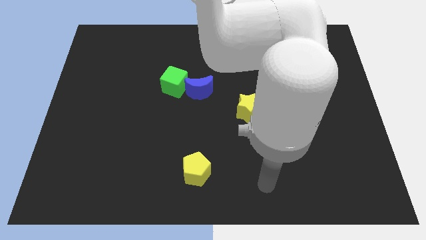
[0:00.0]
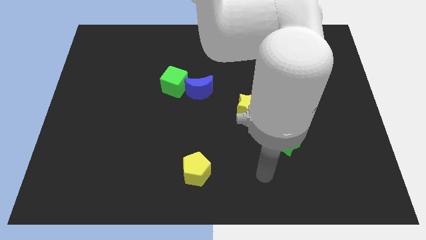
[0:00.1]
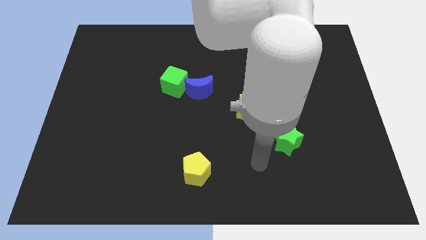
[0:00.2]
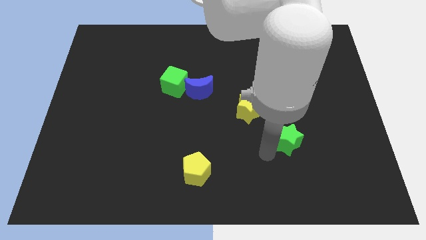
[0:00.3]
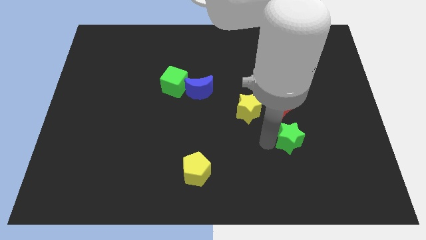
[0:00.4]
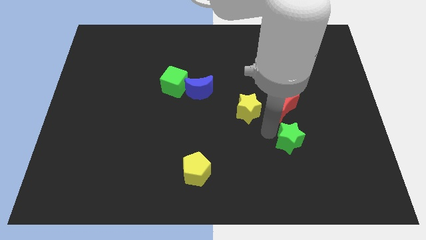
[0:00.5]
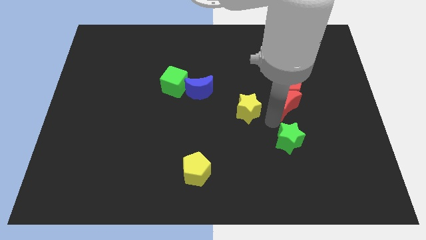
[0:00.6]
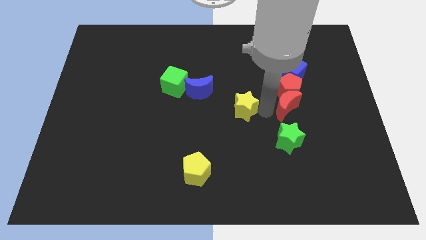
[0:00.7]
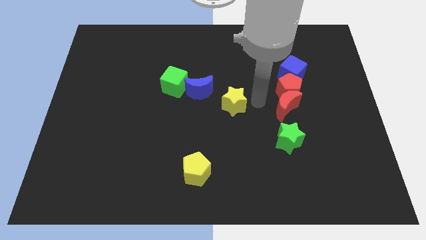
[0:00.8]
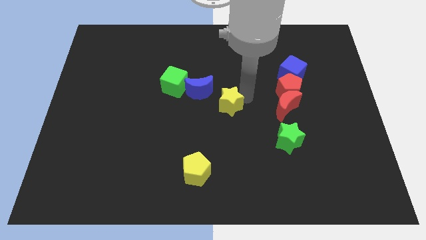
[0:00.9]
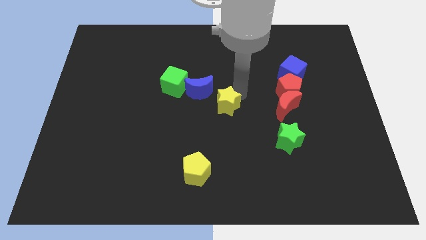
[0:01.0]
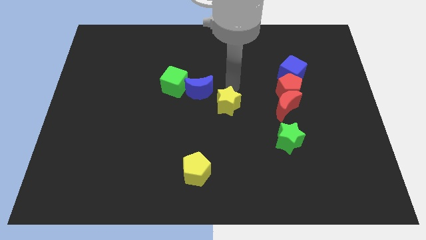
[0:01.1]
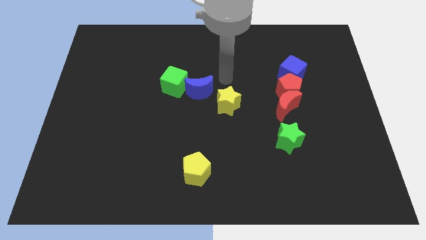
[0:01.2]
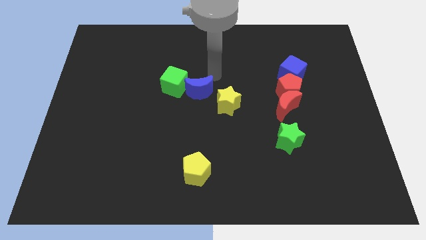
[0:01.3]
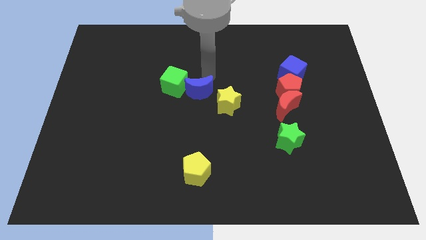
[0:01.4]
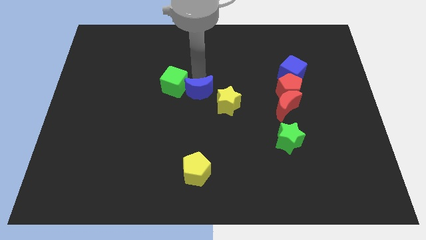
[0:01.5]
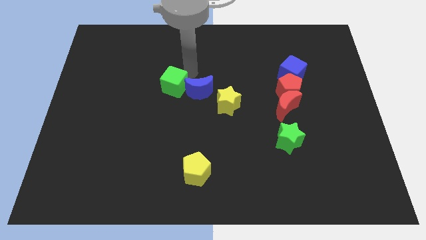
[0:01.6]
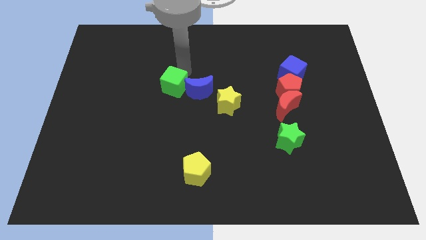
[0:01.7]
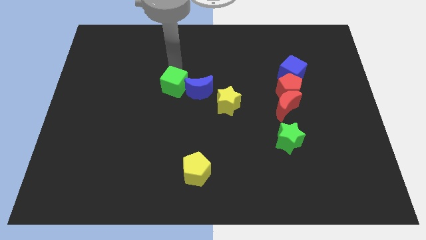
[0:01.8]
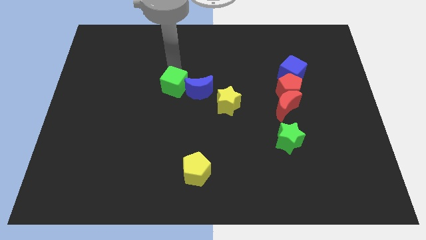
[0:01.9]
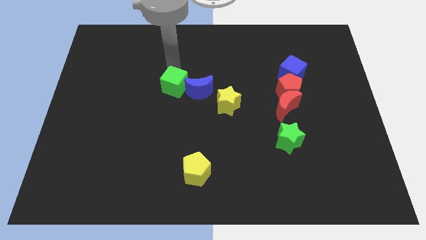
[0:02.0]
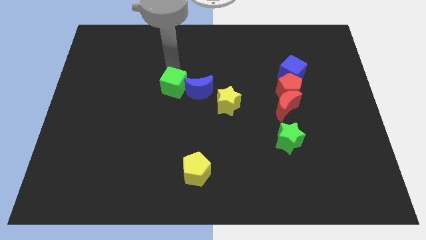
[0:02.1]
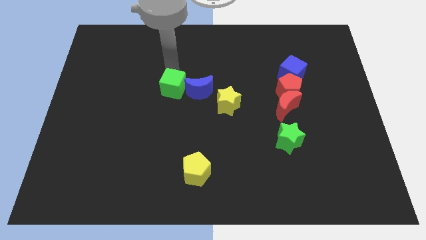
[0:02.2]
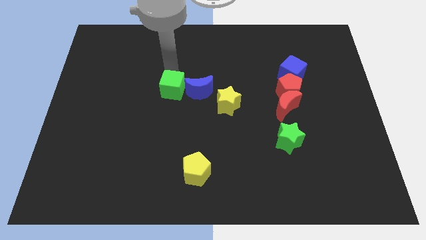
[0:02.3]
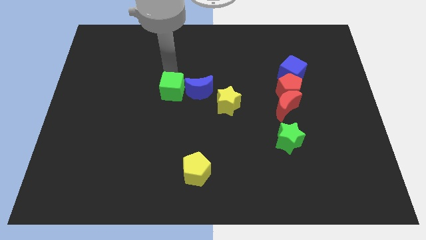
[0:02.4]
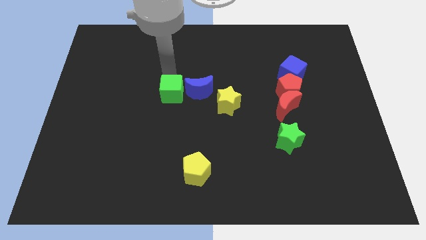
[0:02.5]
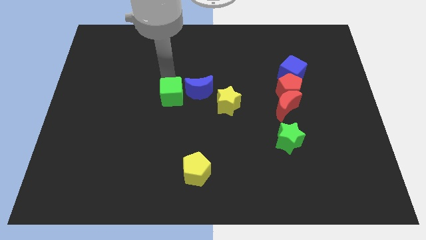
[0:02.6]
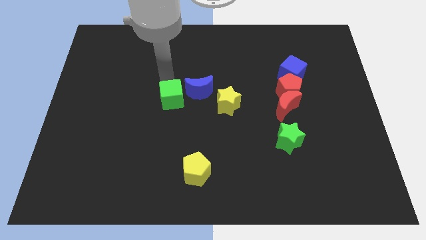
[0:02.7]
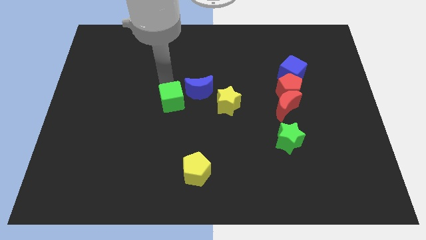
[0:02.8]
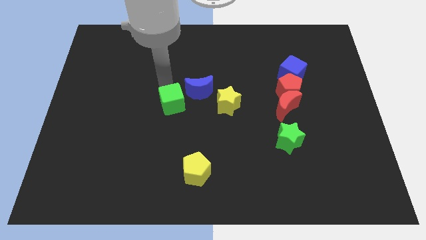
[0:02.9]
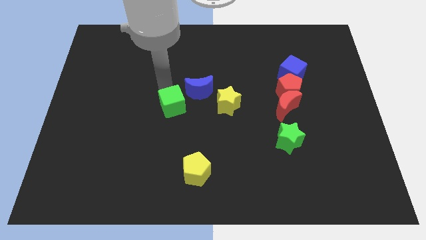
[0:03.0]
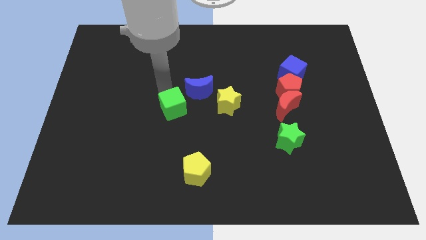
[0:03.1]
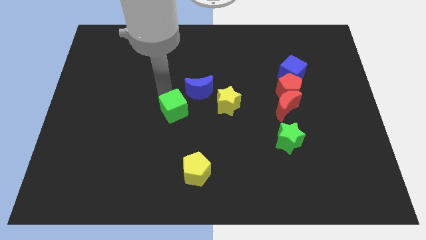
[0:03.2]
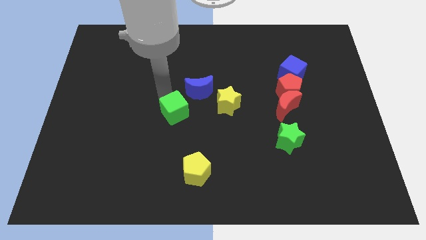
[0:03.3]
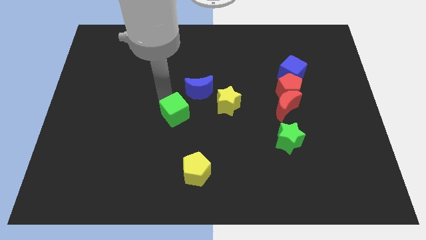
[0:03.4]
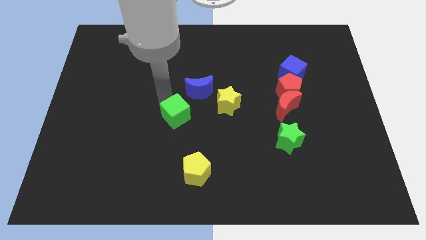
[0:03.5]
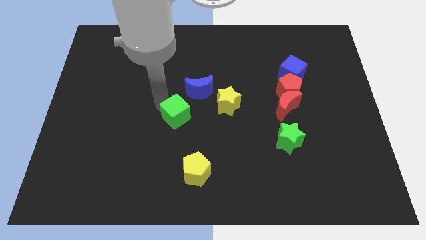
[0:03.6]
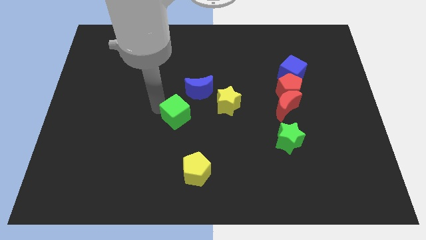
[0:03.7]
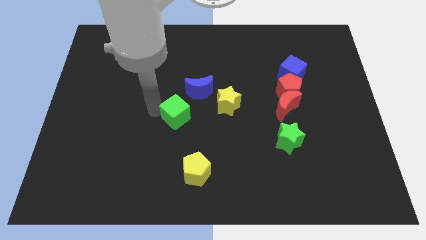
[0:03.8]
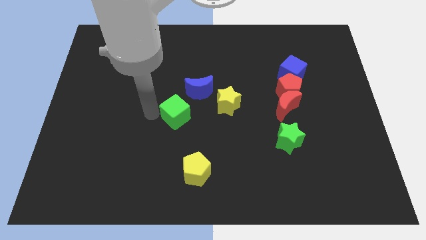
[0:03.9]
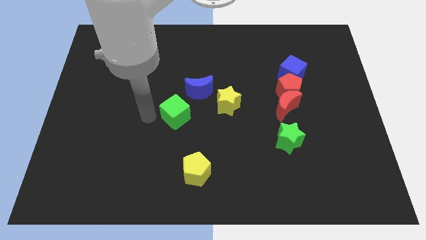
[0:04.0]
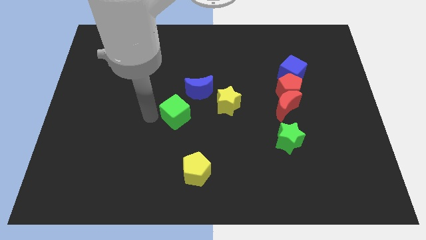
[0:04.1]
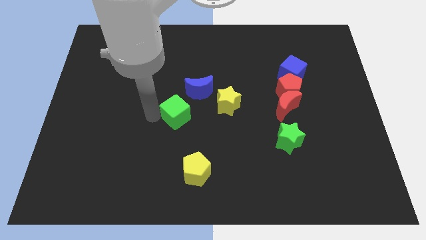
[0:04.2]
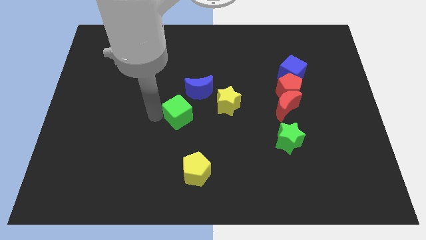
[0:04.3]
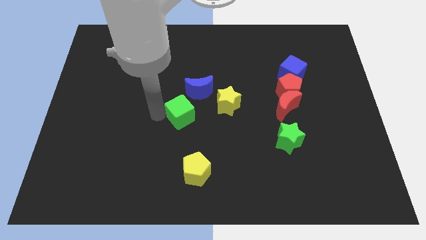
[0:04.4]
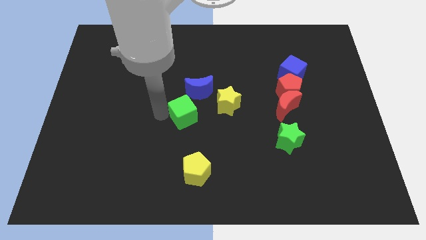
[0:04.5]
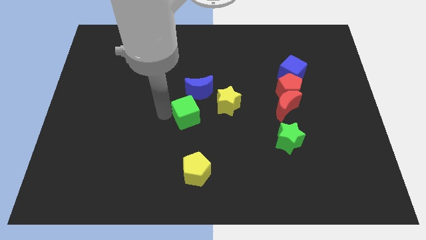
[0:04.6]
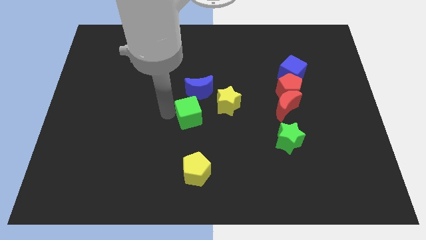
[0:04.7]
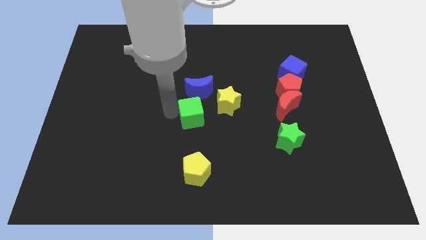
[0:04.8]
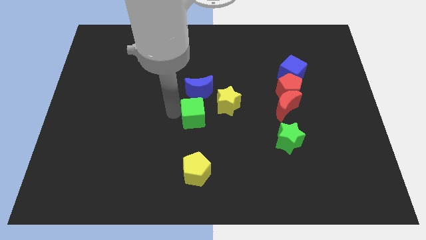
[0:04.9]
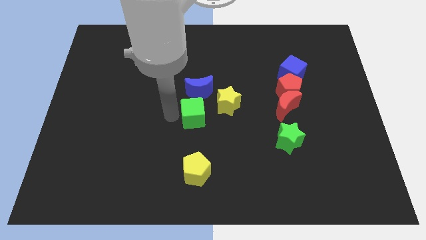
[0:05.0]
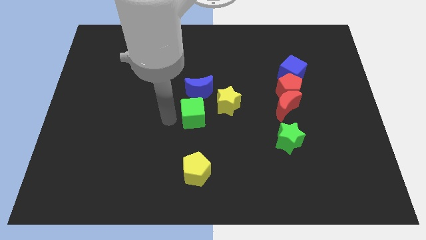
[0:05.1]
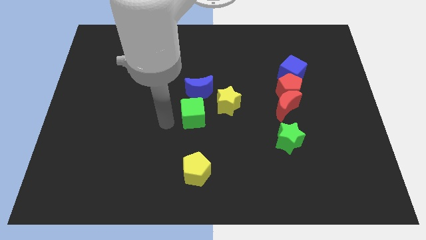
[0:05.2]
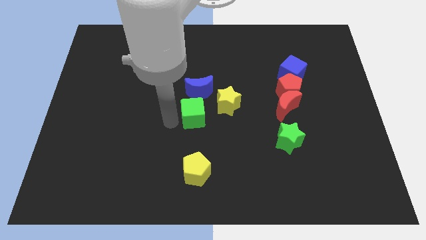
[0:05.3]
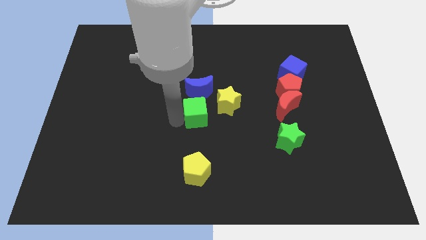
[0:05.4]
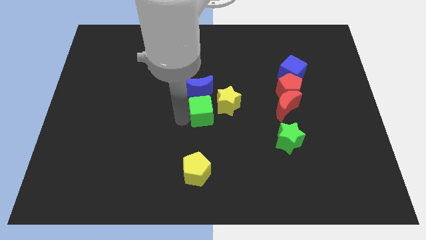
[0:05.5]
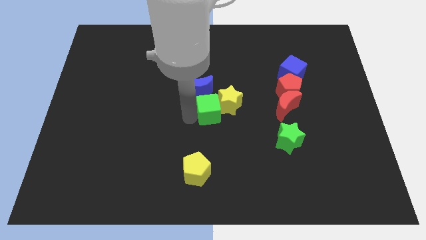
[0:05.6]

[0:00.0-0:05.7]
move the green cube towards the yellow star

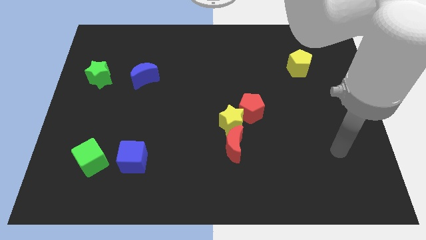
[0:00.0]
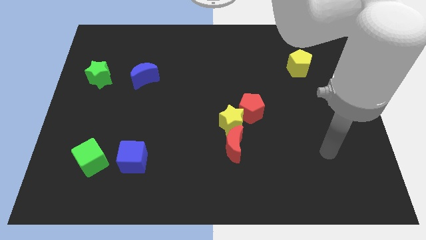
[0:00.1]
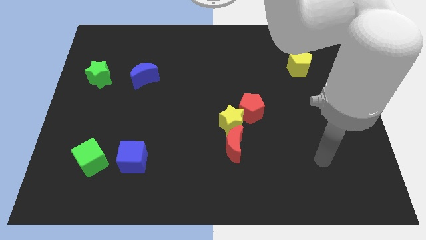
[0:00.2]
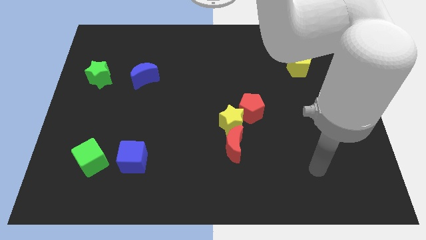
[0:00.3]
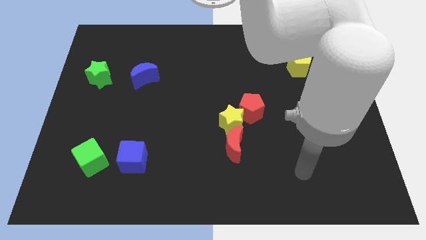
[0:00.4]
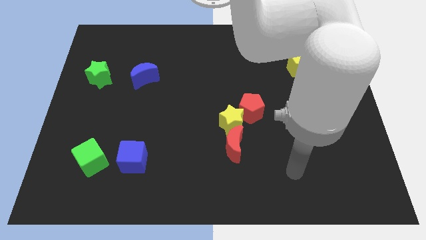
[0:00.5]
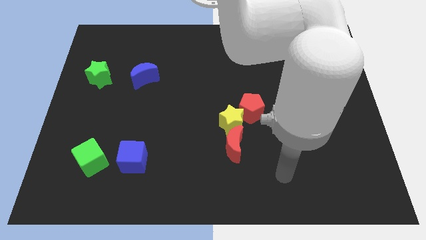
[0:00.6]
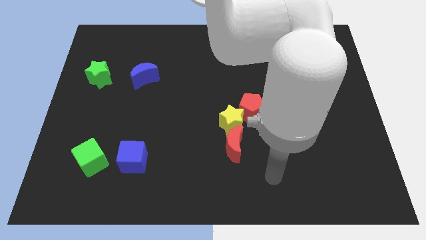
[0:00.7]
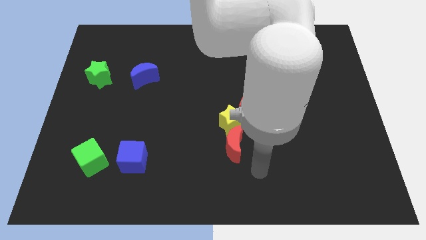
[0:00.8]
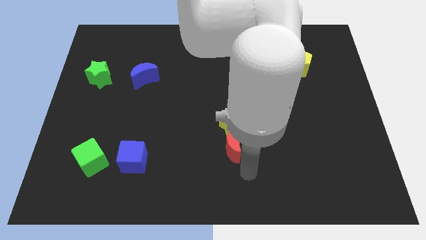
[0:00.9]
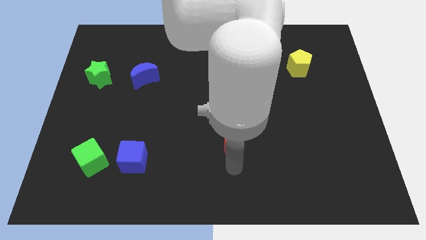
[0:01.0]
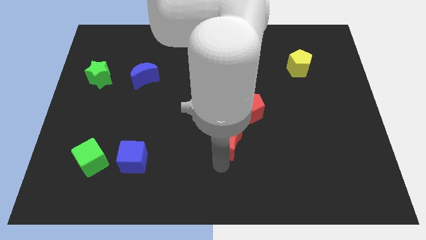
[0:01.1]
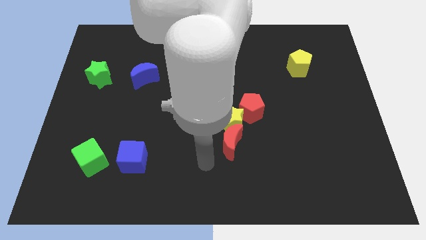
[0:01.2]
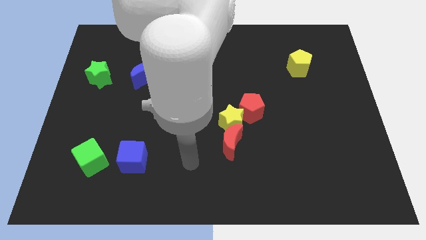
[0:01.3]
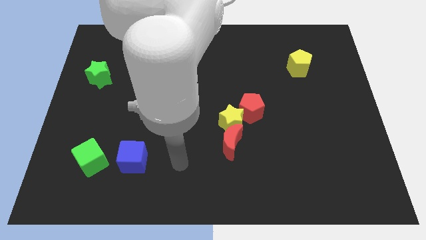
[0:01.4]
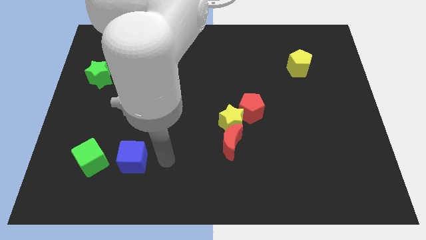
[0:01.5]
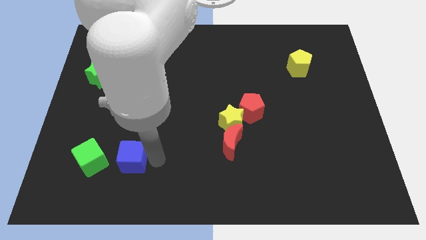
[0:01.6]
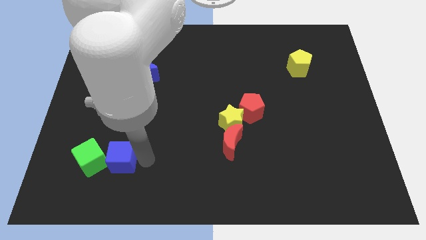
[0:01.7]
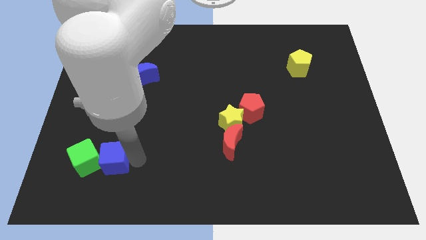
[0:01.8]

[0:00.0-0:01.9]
push the blue cube close to the green cube

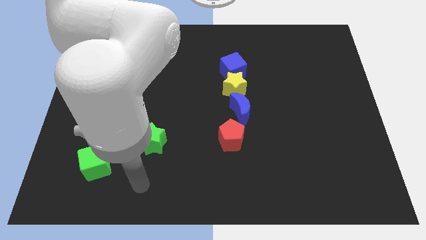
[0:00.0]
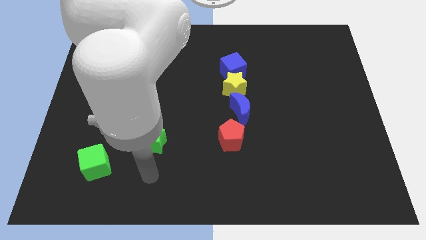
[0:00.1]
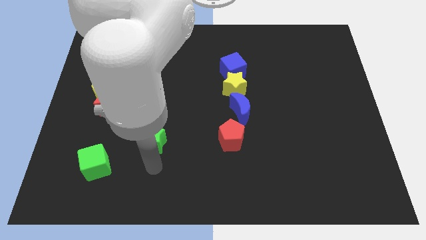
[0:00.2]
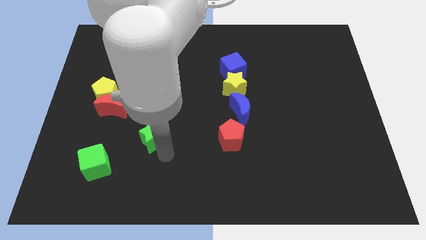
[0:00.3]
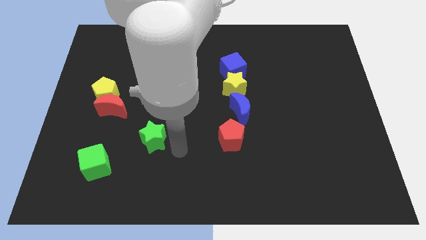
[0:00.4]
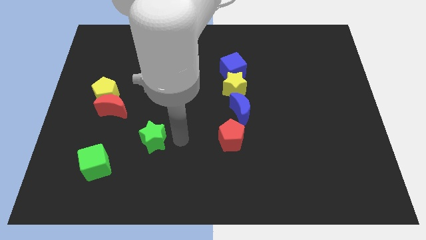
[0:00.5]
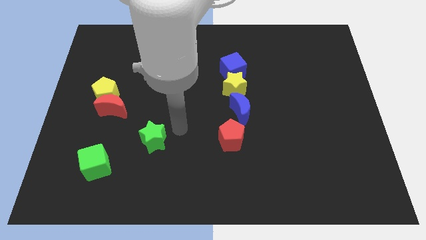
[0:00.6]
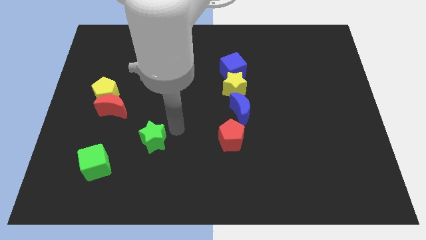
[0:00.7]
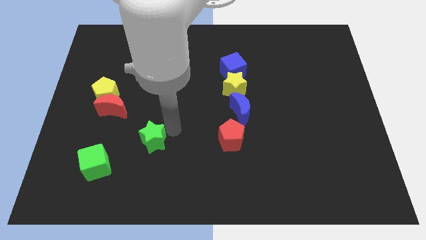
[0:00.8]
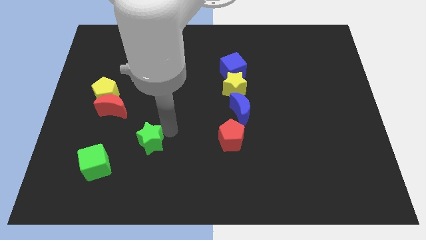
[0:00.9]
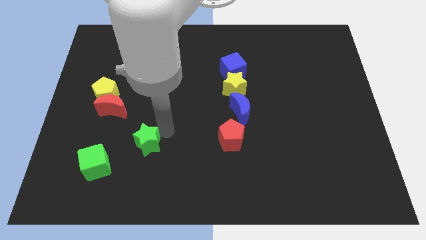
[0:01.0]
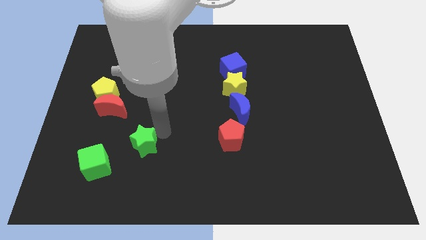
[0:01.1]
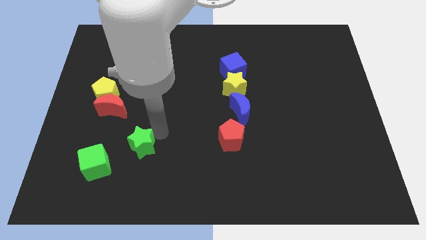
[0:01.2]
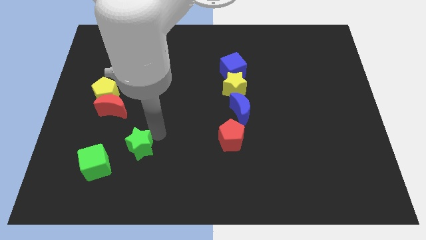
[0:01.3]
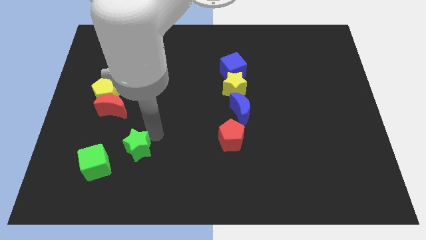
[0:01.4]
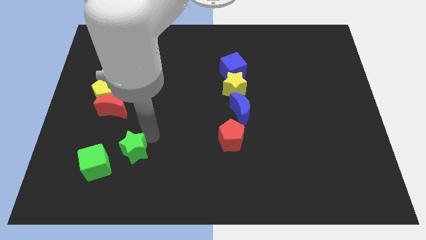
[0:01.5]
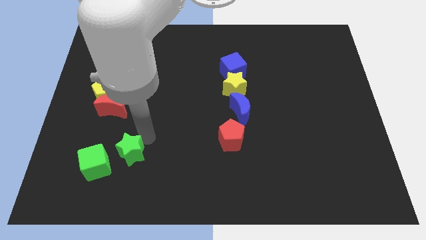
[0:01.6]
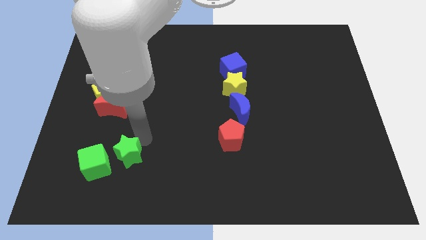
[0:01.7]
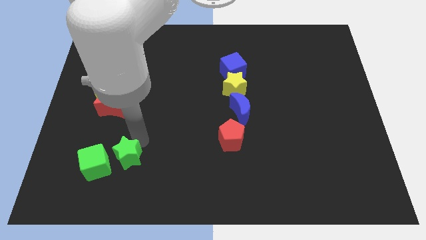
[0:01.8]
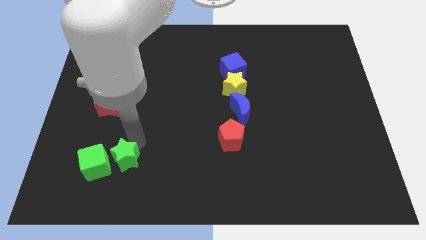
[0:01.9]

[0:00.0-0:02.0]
move the green star close to the green cube
